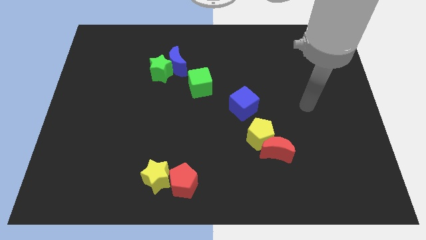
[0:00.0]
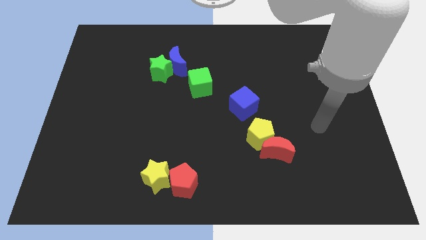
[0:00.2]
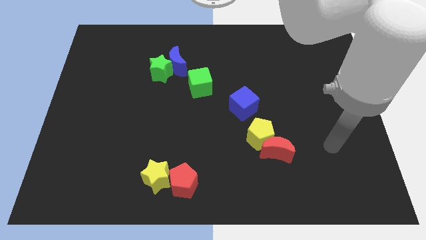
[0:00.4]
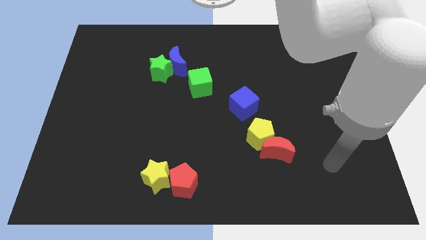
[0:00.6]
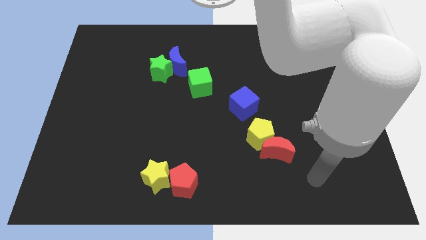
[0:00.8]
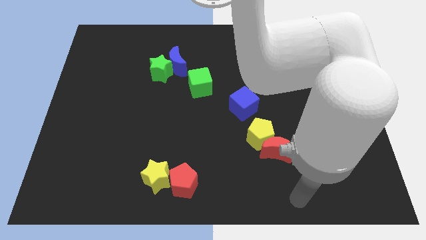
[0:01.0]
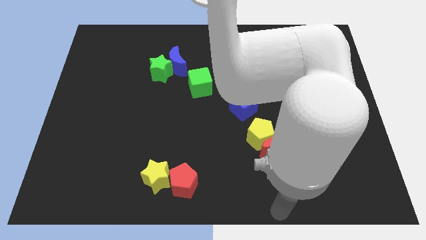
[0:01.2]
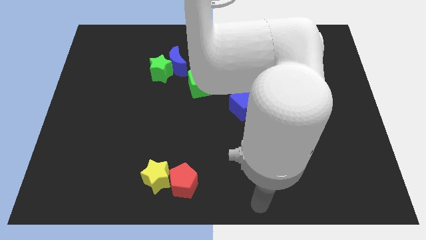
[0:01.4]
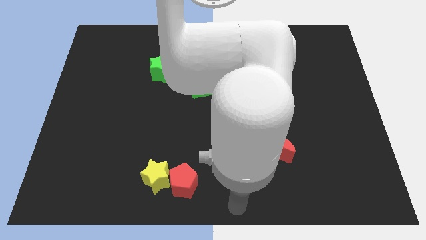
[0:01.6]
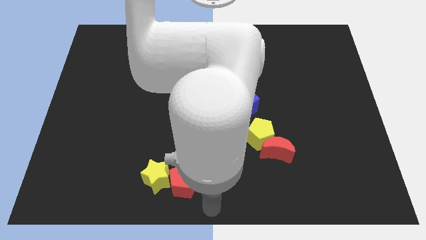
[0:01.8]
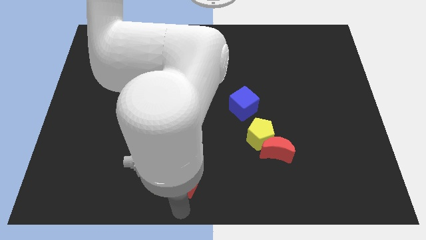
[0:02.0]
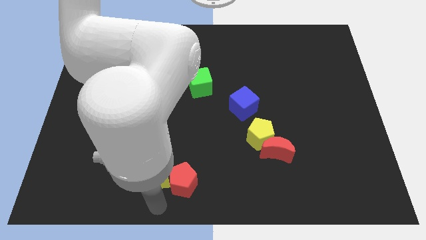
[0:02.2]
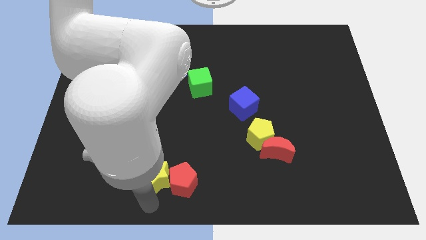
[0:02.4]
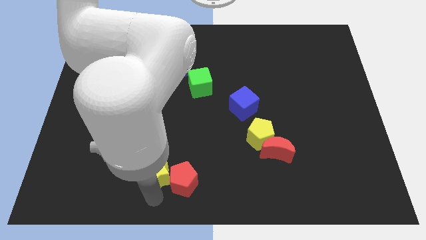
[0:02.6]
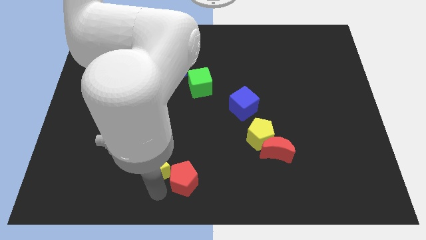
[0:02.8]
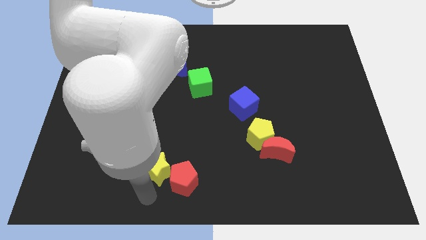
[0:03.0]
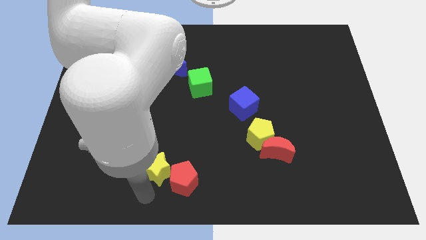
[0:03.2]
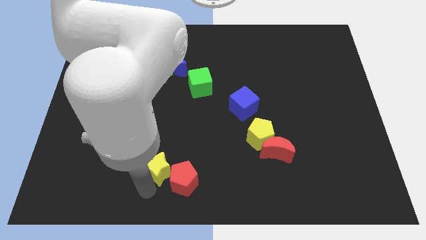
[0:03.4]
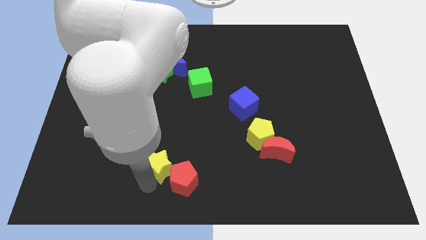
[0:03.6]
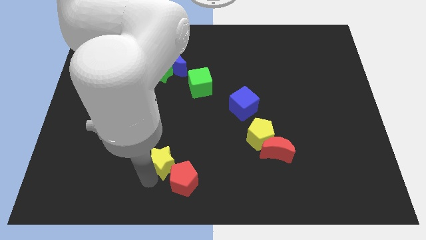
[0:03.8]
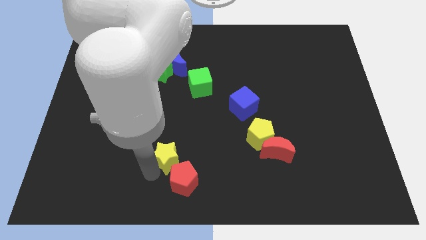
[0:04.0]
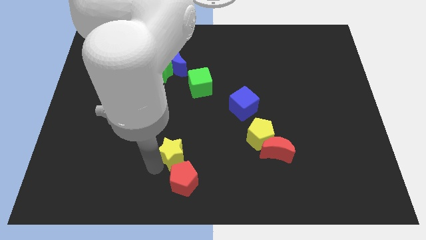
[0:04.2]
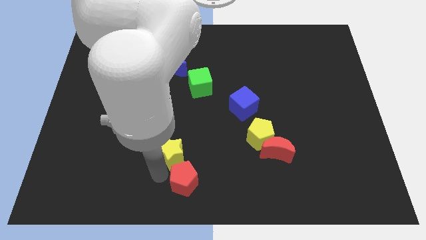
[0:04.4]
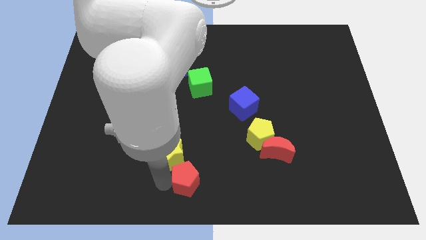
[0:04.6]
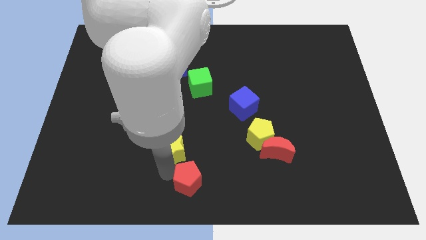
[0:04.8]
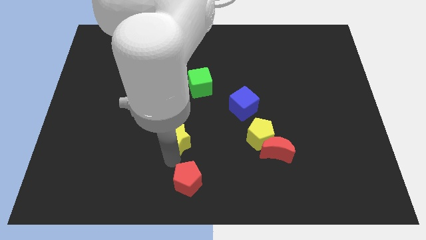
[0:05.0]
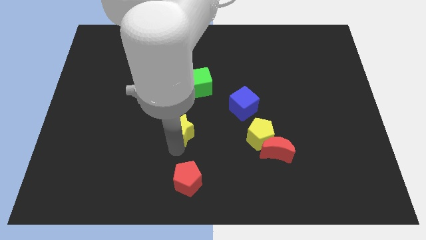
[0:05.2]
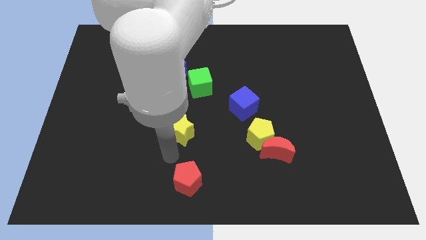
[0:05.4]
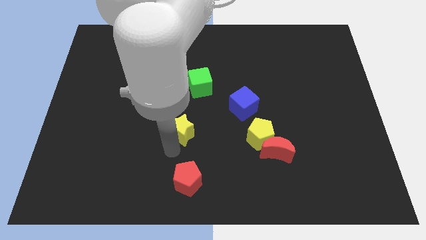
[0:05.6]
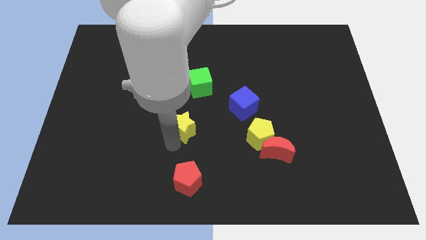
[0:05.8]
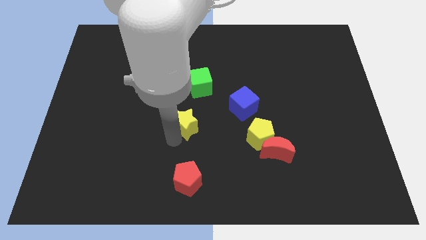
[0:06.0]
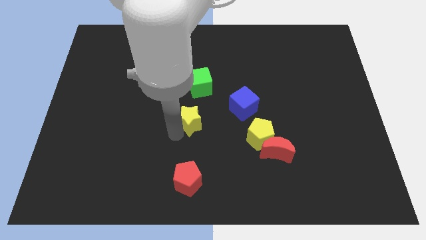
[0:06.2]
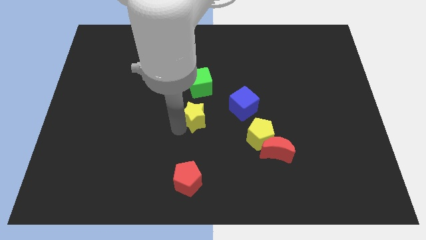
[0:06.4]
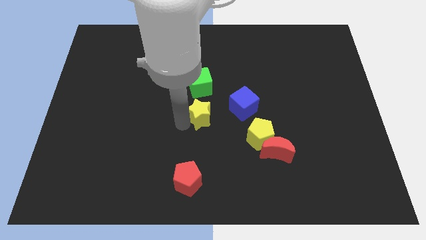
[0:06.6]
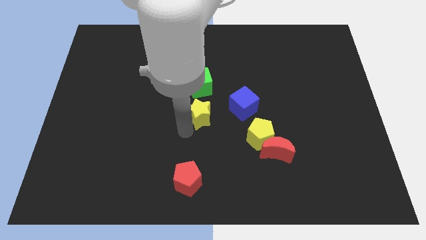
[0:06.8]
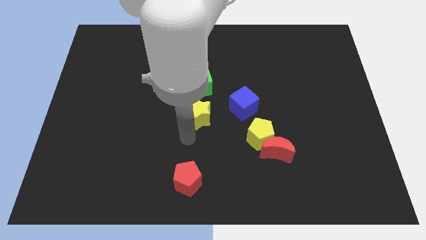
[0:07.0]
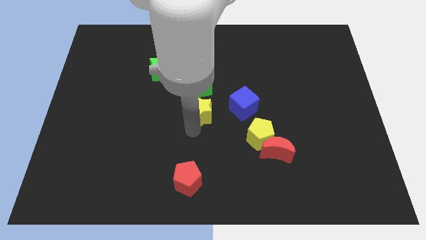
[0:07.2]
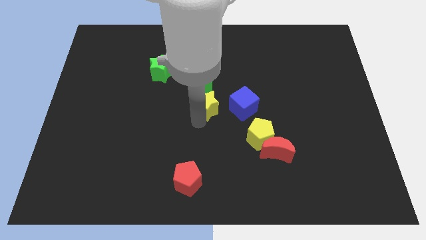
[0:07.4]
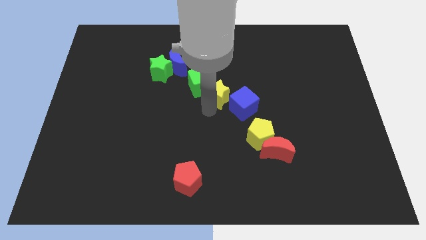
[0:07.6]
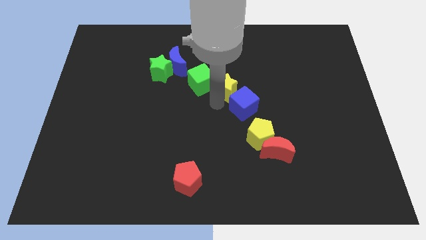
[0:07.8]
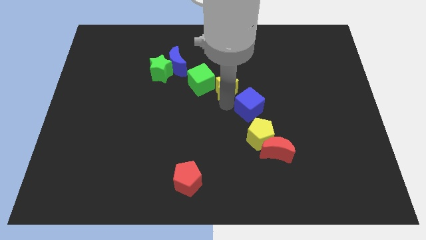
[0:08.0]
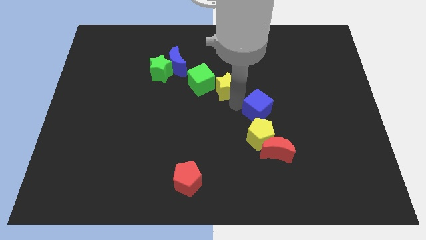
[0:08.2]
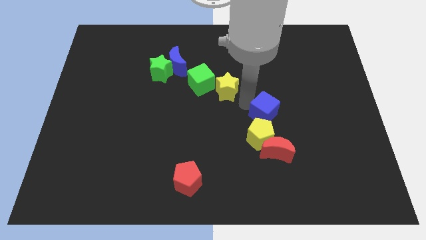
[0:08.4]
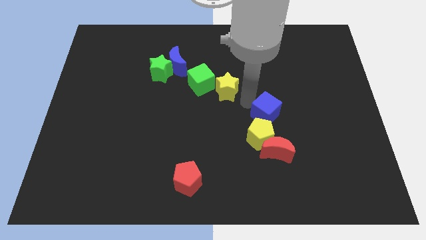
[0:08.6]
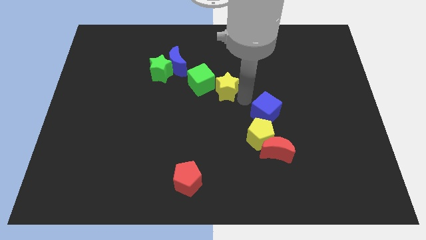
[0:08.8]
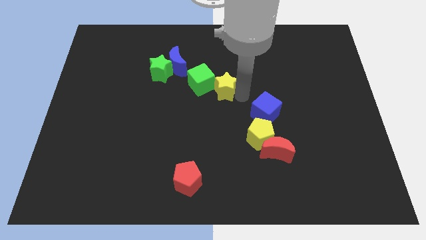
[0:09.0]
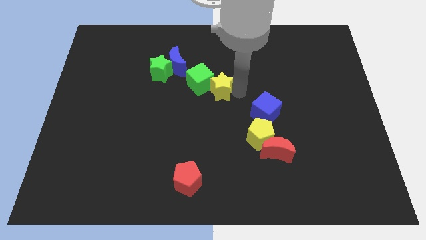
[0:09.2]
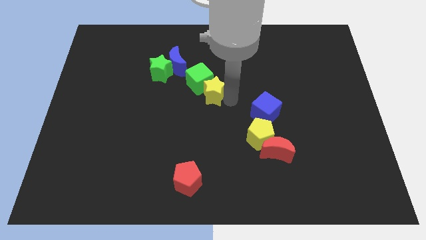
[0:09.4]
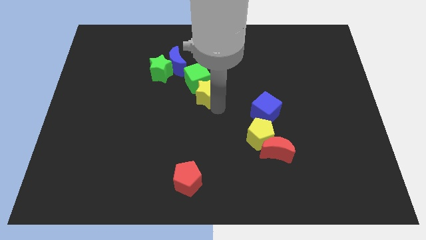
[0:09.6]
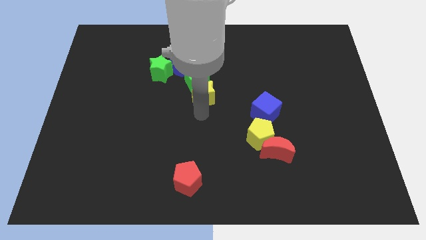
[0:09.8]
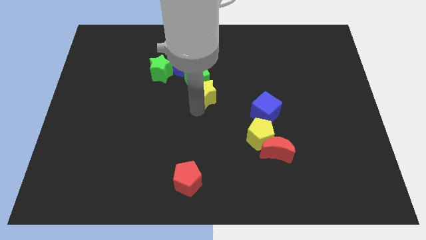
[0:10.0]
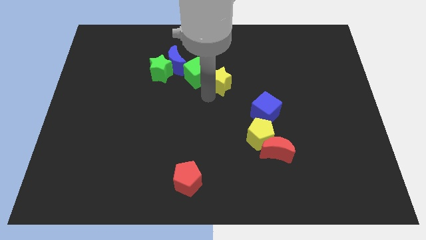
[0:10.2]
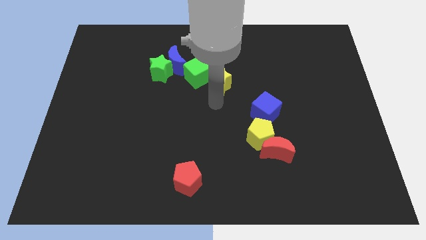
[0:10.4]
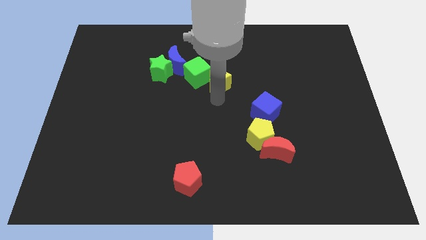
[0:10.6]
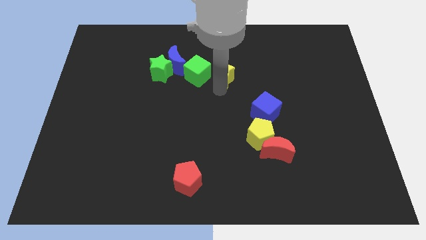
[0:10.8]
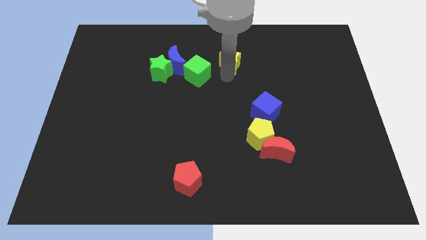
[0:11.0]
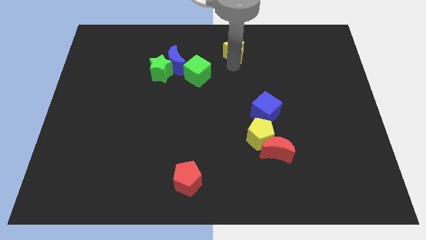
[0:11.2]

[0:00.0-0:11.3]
slide the yellow star to the top

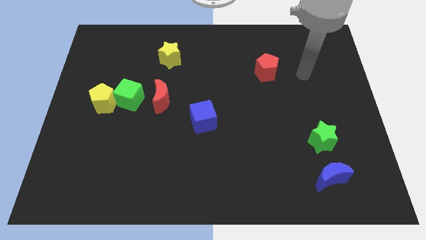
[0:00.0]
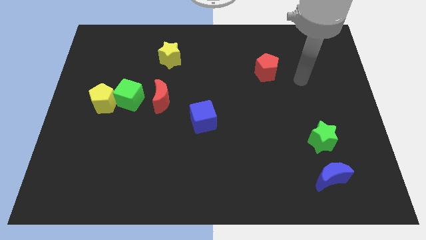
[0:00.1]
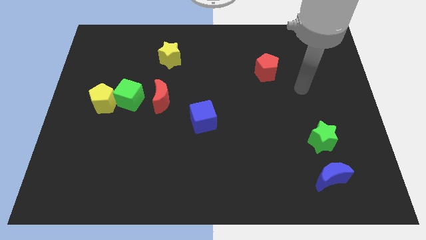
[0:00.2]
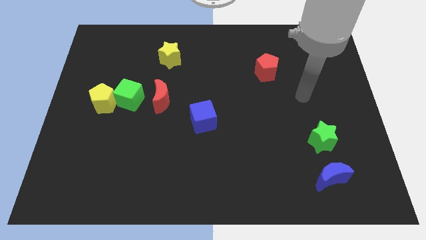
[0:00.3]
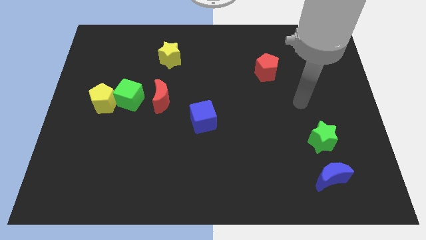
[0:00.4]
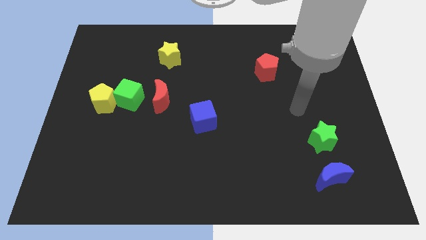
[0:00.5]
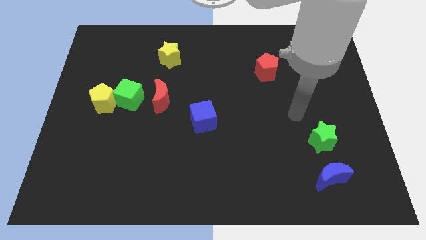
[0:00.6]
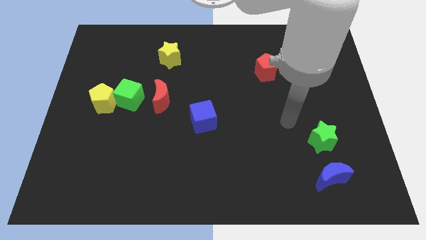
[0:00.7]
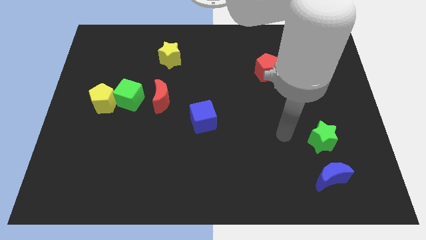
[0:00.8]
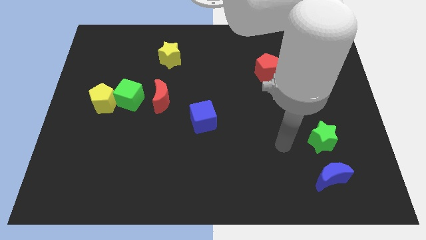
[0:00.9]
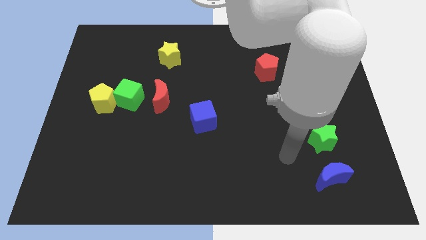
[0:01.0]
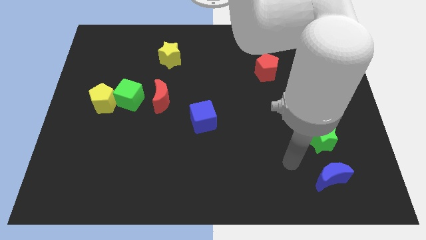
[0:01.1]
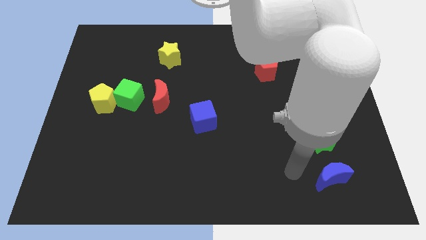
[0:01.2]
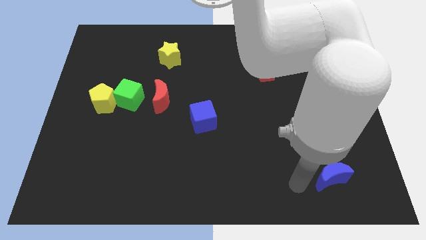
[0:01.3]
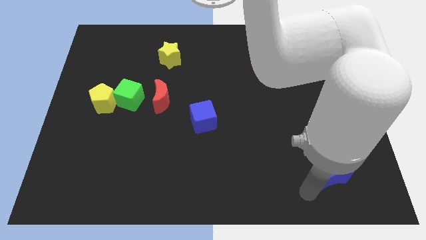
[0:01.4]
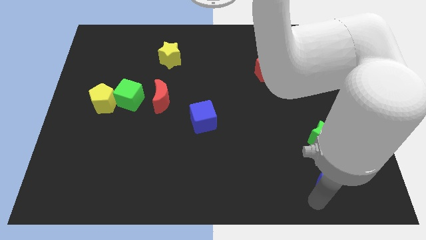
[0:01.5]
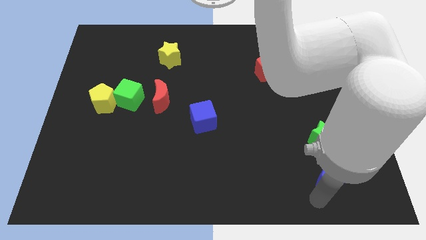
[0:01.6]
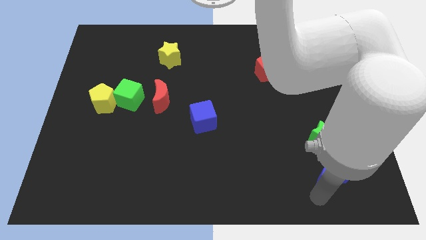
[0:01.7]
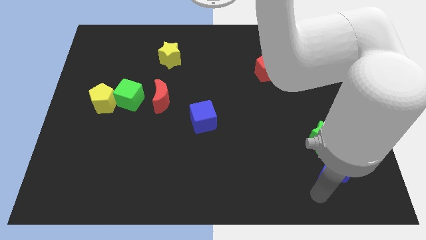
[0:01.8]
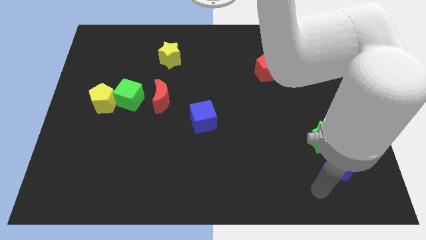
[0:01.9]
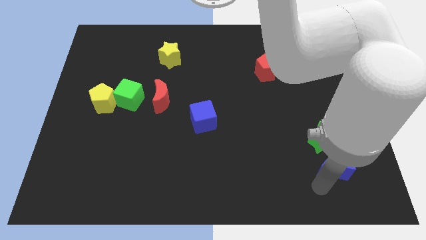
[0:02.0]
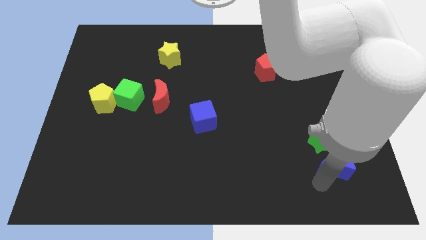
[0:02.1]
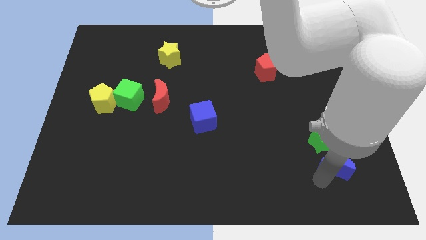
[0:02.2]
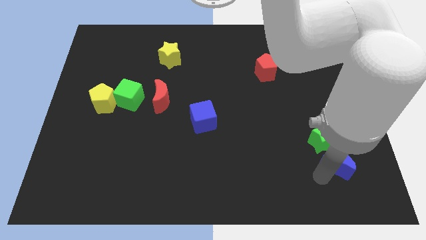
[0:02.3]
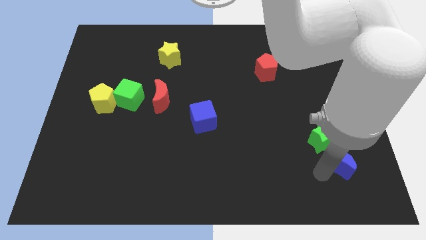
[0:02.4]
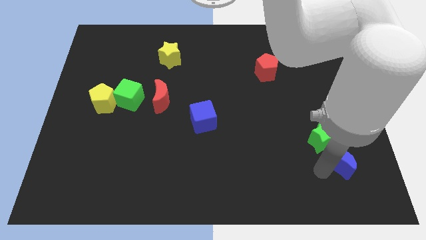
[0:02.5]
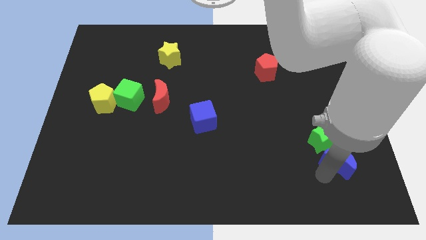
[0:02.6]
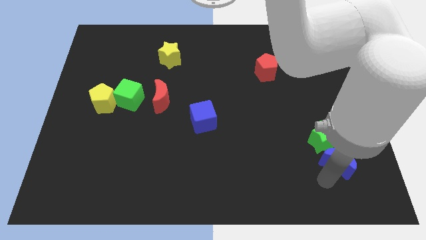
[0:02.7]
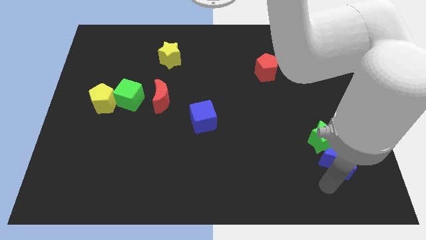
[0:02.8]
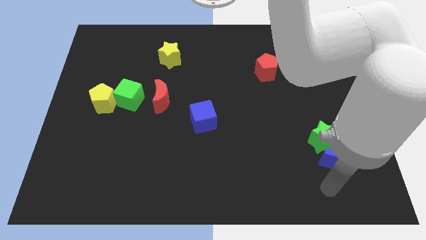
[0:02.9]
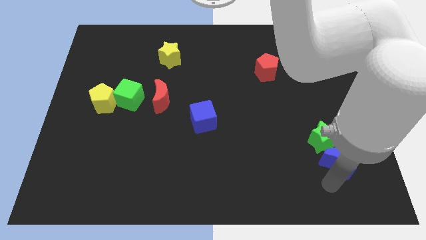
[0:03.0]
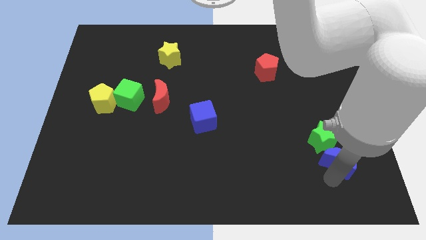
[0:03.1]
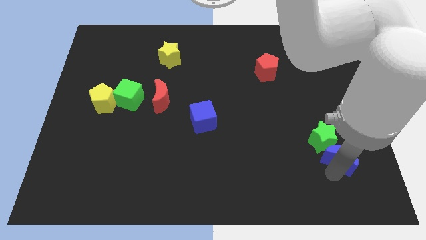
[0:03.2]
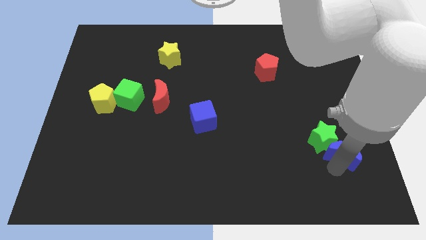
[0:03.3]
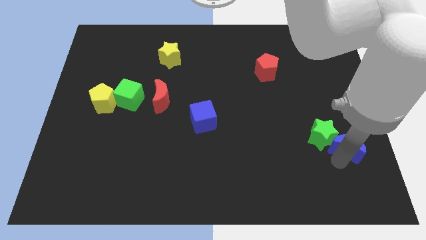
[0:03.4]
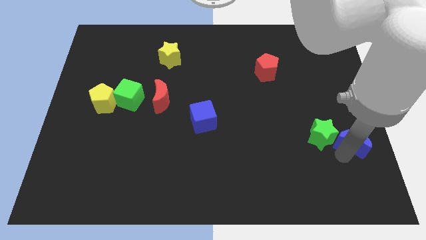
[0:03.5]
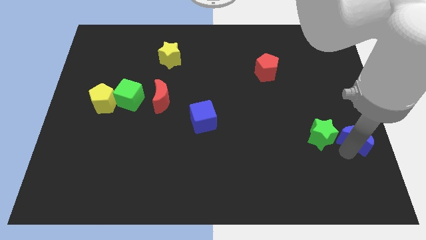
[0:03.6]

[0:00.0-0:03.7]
slide the blue moon to the center right
